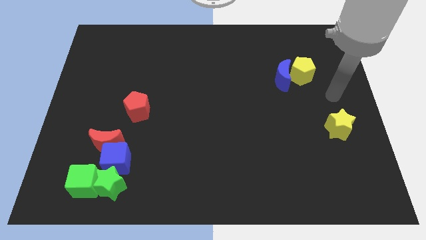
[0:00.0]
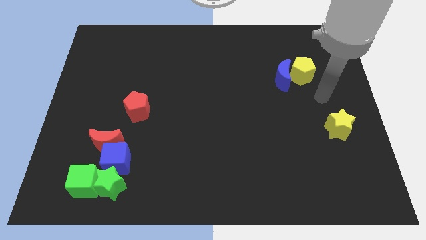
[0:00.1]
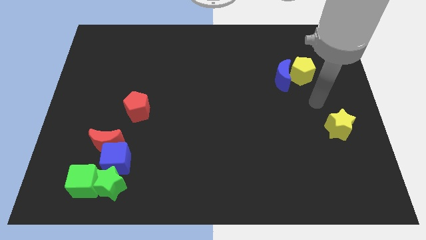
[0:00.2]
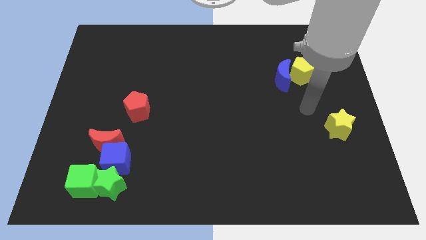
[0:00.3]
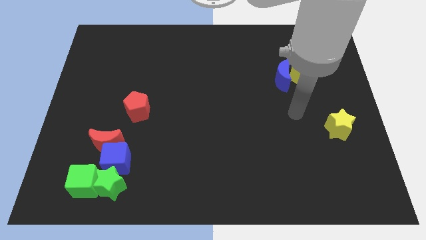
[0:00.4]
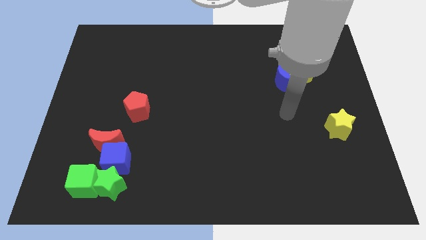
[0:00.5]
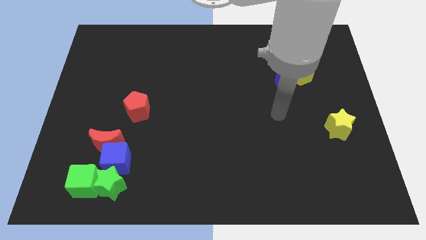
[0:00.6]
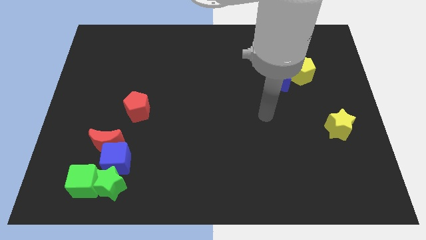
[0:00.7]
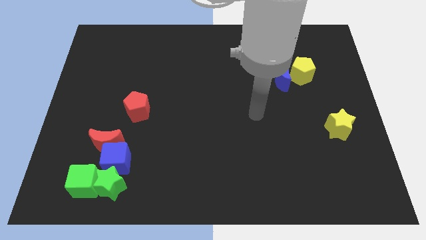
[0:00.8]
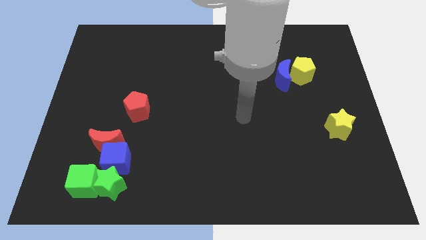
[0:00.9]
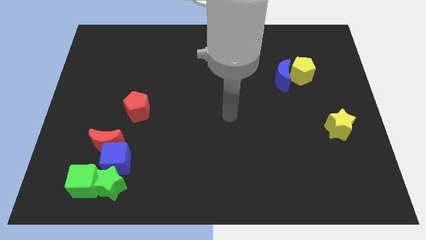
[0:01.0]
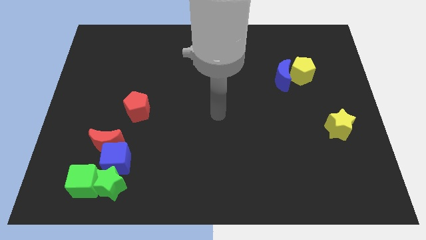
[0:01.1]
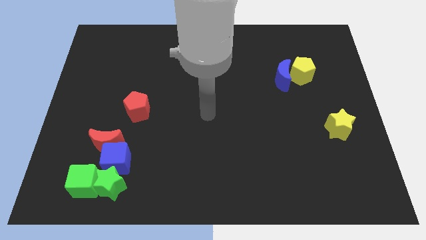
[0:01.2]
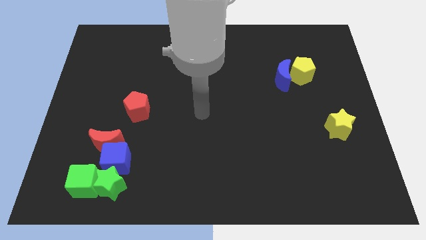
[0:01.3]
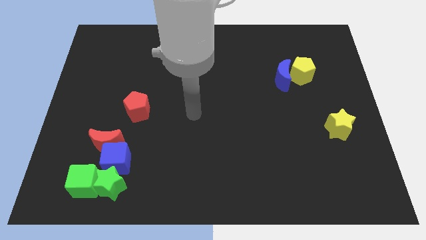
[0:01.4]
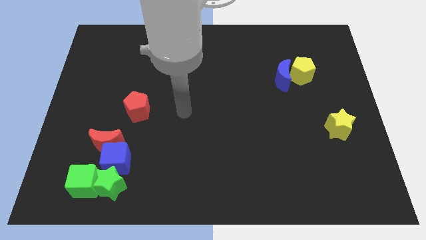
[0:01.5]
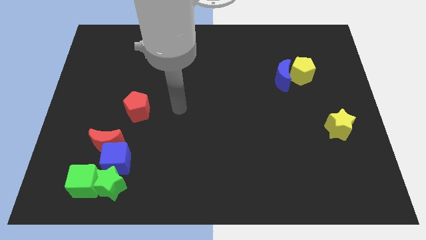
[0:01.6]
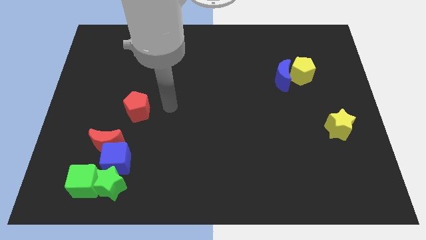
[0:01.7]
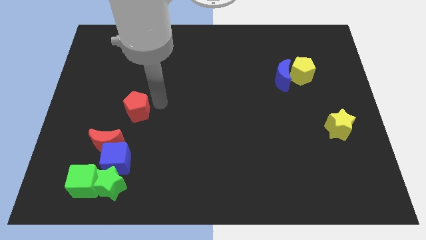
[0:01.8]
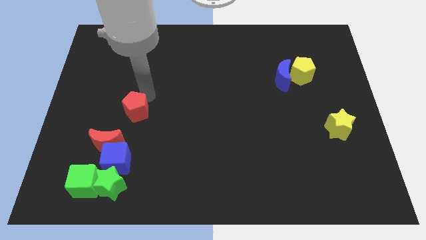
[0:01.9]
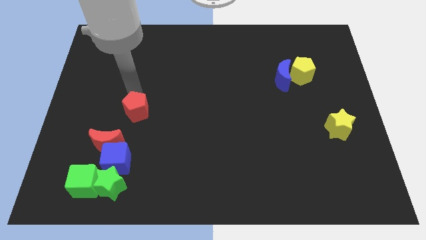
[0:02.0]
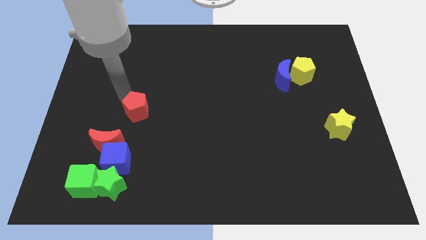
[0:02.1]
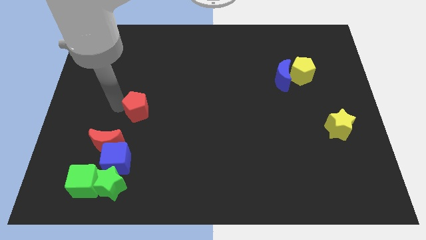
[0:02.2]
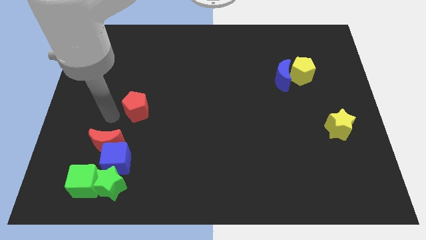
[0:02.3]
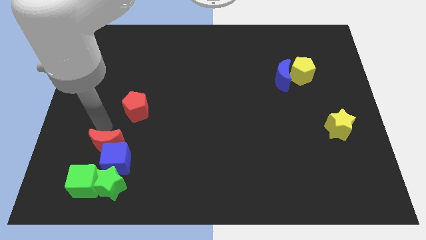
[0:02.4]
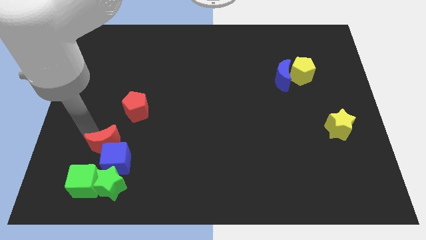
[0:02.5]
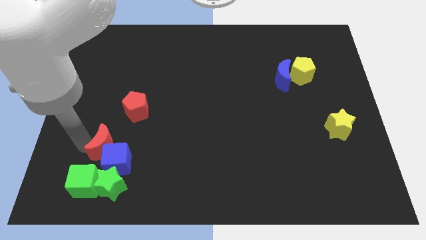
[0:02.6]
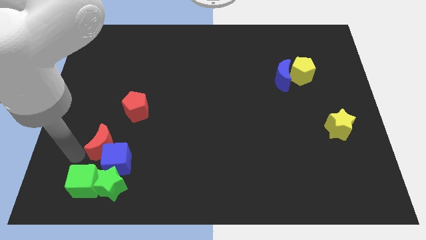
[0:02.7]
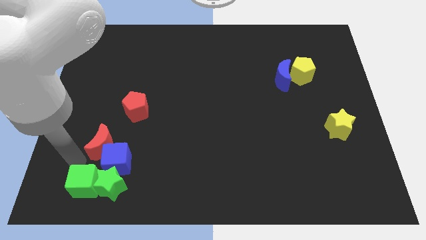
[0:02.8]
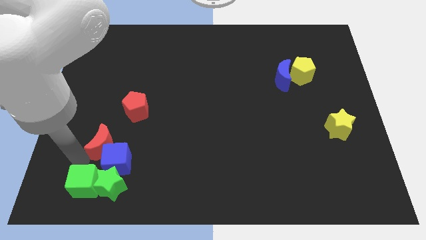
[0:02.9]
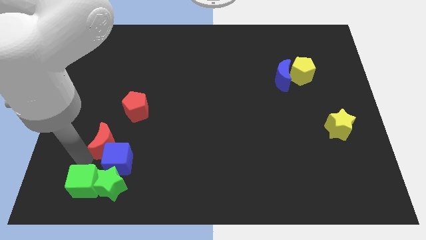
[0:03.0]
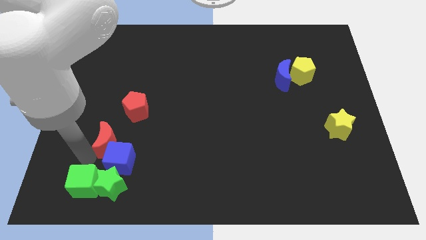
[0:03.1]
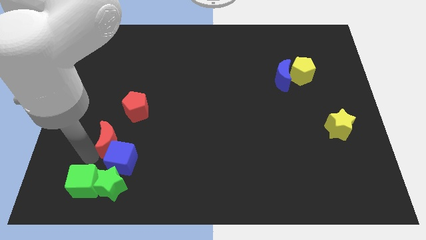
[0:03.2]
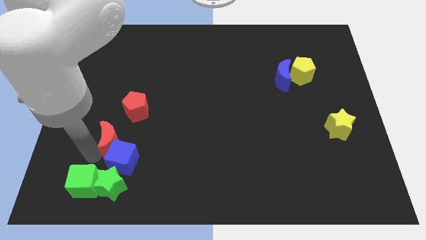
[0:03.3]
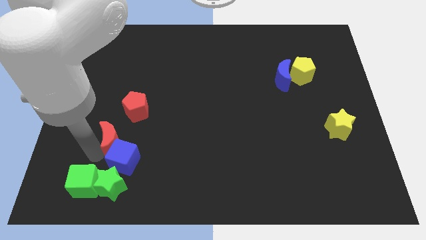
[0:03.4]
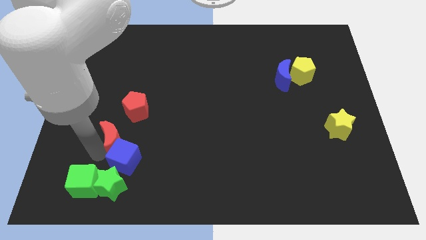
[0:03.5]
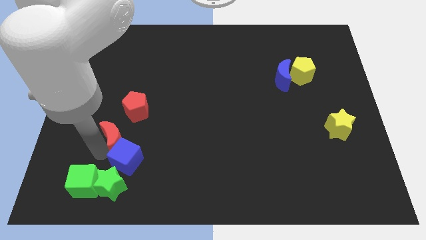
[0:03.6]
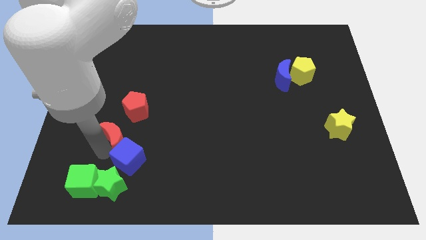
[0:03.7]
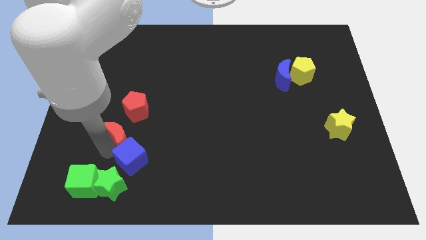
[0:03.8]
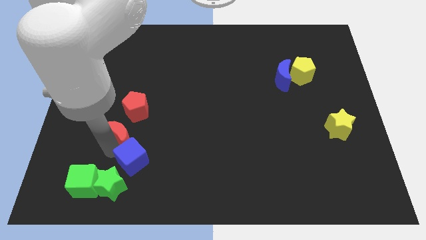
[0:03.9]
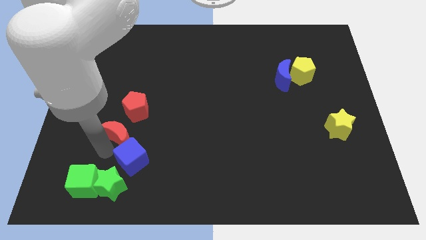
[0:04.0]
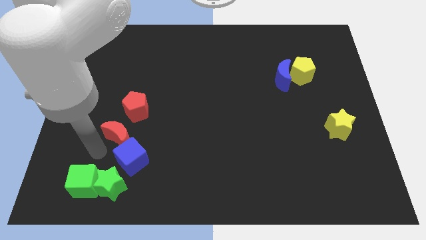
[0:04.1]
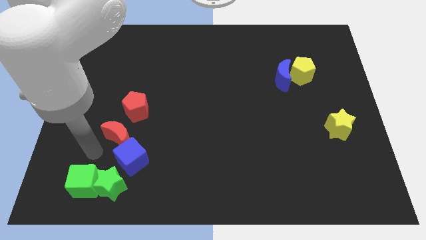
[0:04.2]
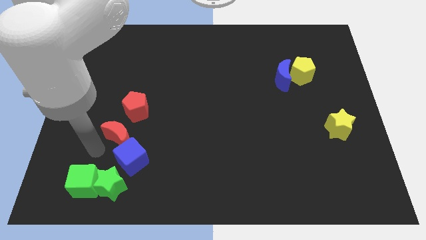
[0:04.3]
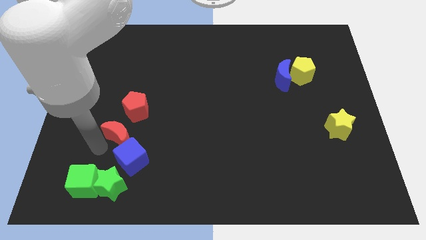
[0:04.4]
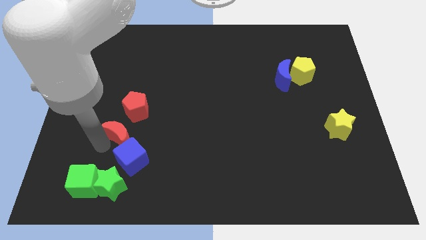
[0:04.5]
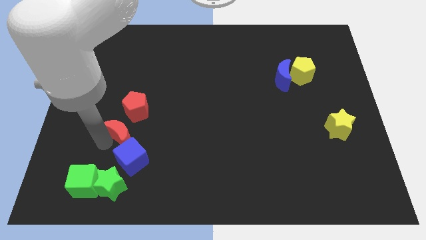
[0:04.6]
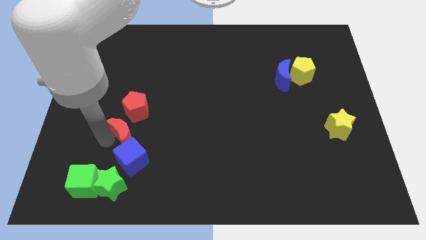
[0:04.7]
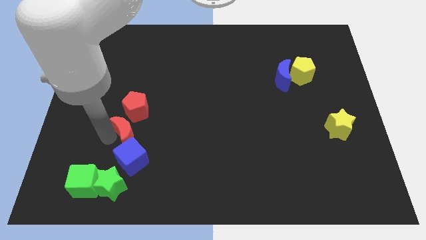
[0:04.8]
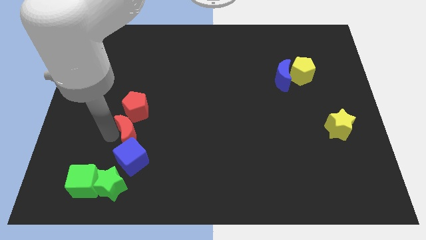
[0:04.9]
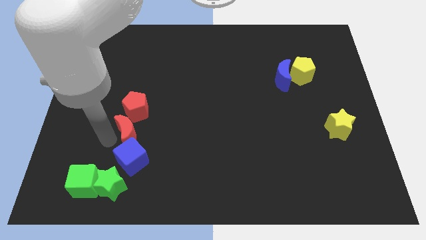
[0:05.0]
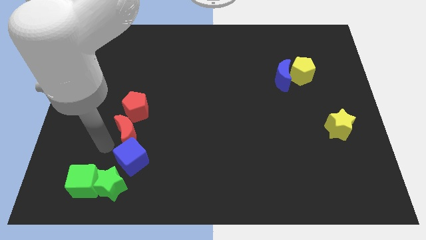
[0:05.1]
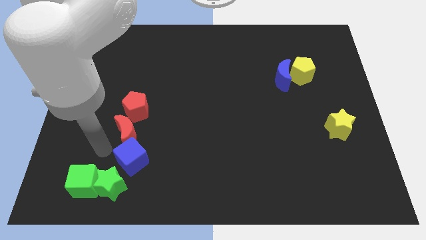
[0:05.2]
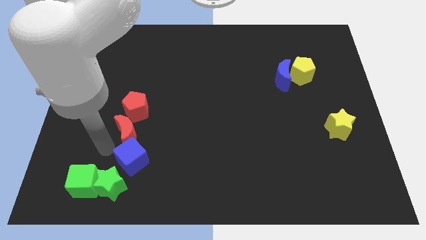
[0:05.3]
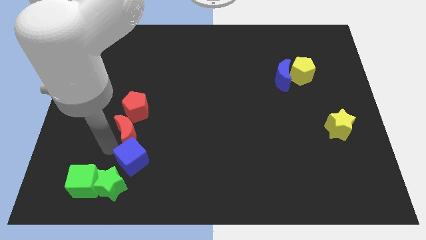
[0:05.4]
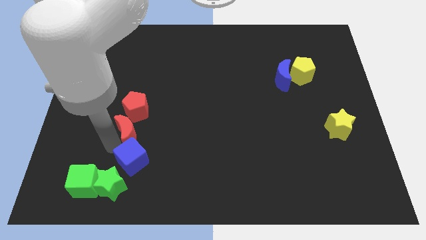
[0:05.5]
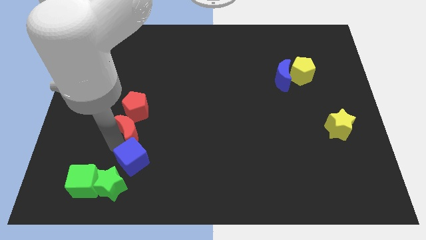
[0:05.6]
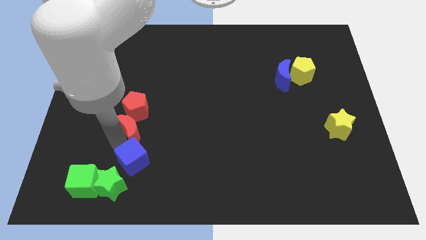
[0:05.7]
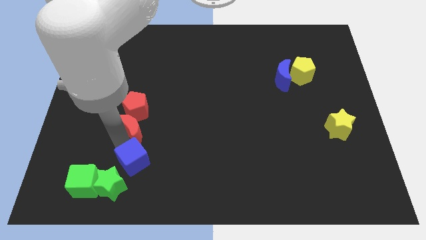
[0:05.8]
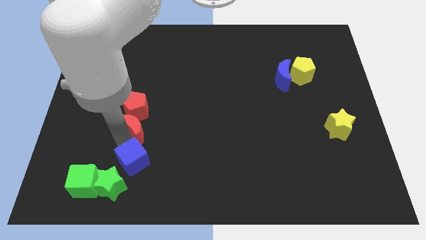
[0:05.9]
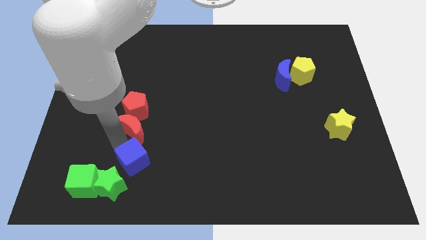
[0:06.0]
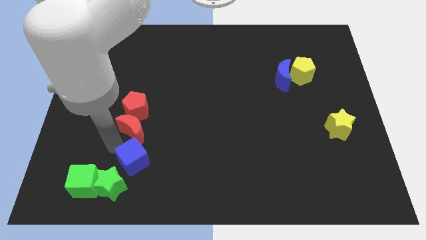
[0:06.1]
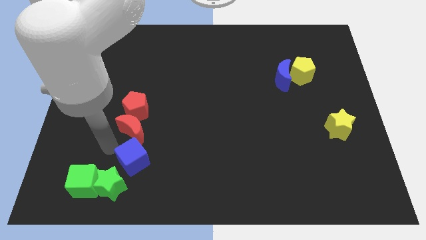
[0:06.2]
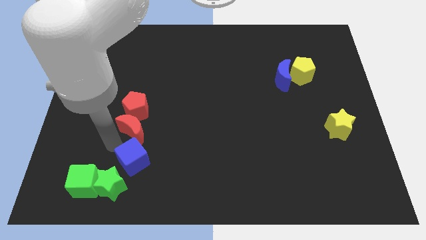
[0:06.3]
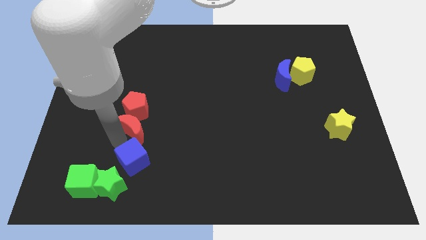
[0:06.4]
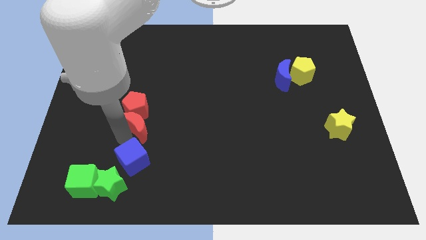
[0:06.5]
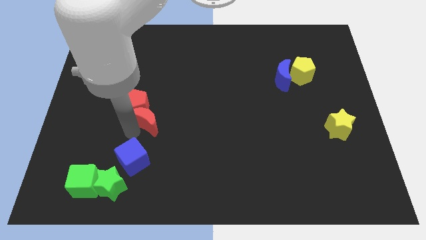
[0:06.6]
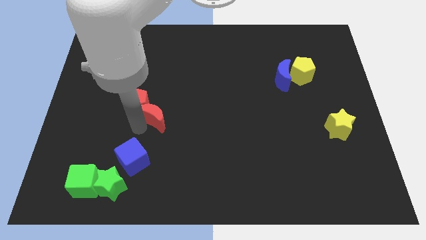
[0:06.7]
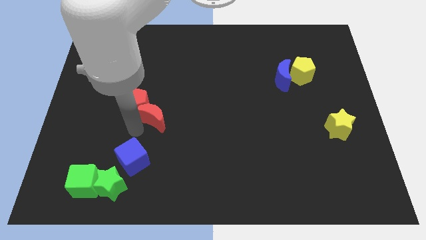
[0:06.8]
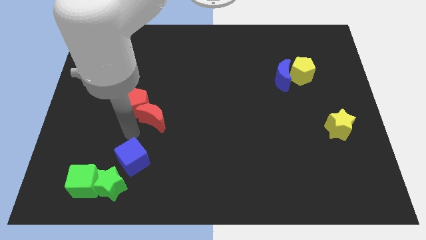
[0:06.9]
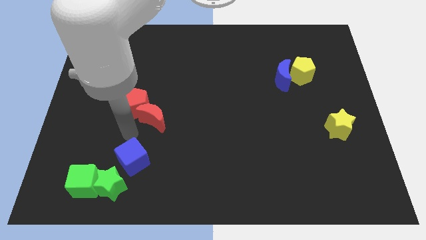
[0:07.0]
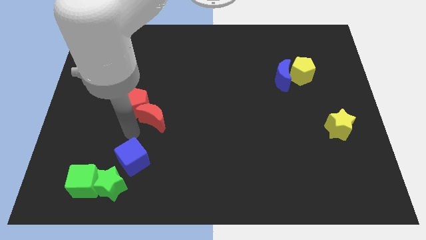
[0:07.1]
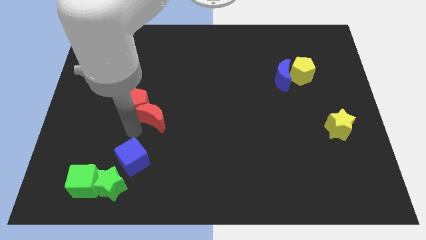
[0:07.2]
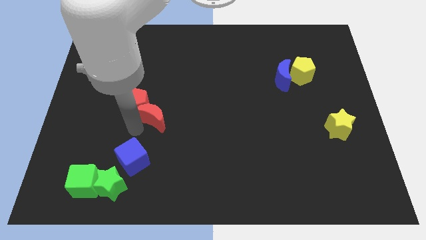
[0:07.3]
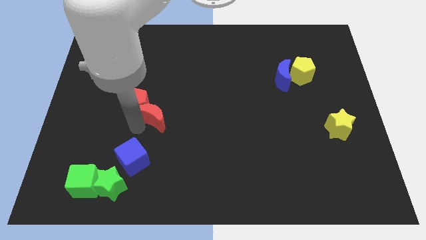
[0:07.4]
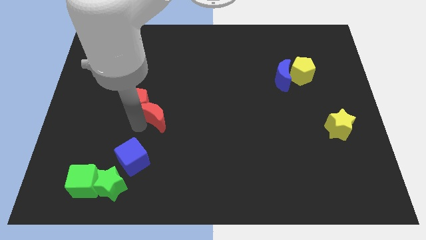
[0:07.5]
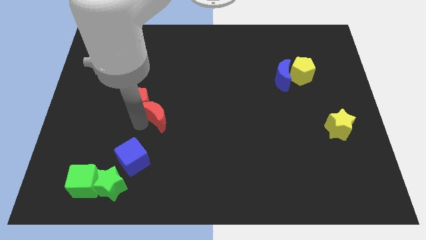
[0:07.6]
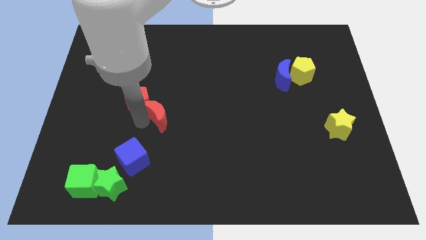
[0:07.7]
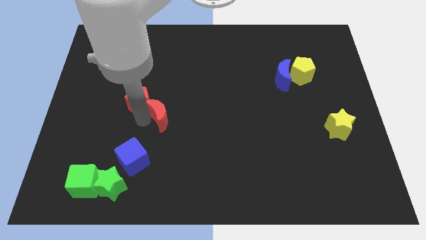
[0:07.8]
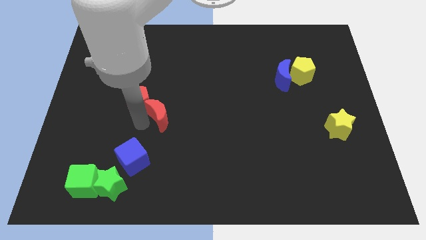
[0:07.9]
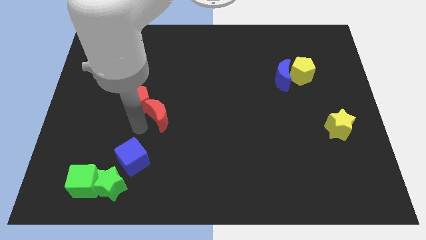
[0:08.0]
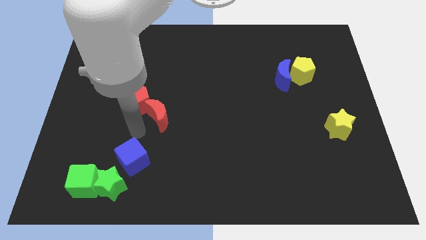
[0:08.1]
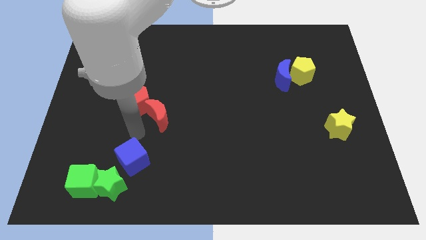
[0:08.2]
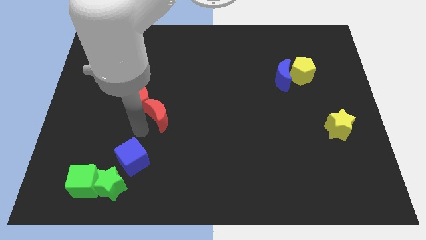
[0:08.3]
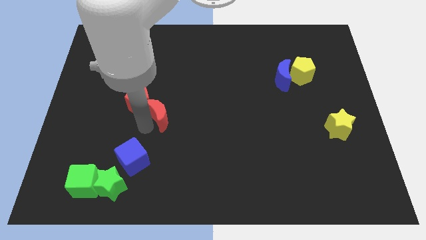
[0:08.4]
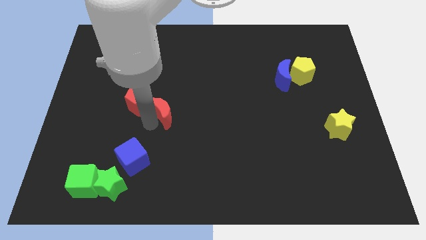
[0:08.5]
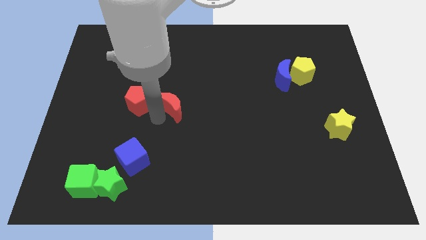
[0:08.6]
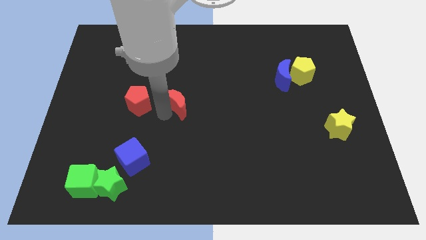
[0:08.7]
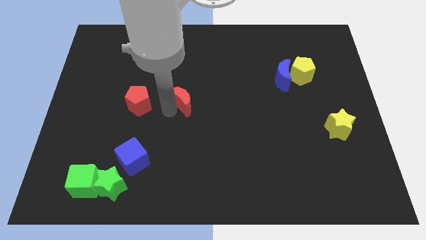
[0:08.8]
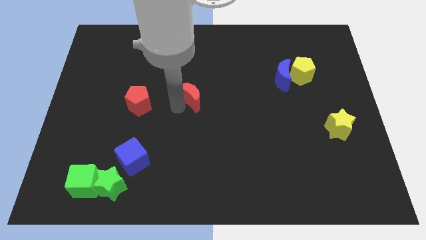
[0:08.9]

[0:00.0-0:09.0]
move the red moon diagonally up and right
